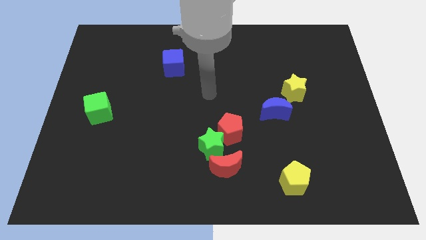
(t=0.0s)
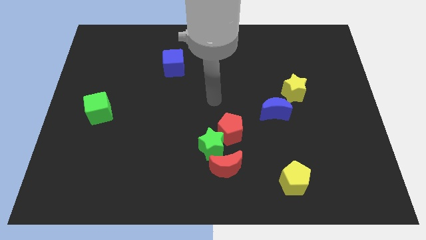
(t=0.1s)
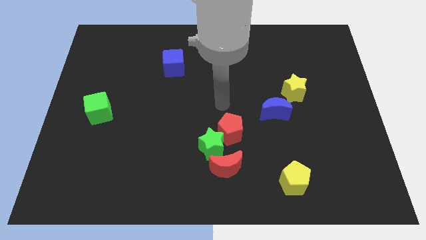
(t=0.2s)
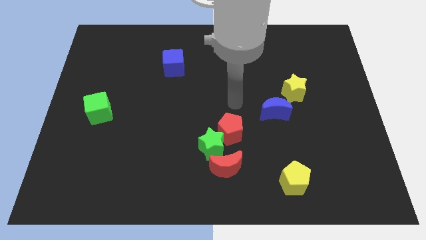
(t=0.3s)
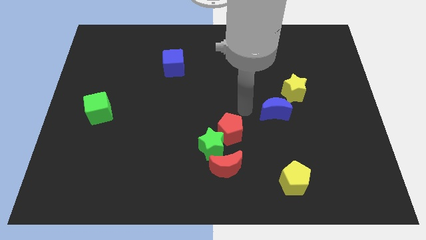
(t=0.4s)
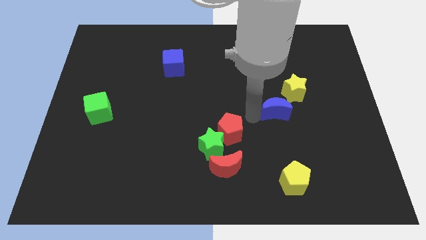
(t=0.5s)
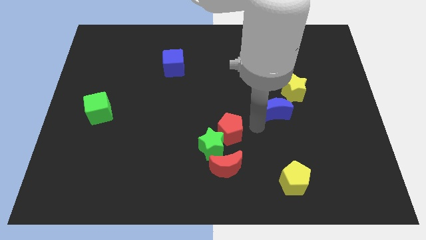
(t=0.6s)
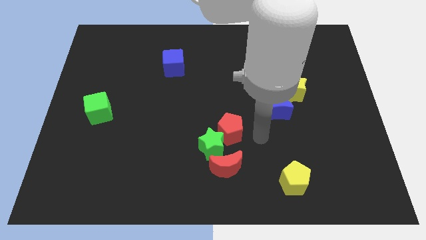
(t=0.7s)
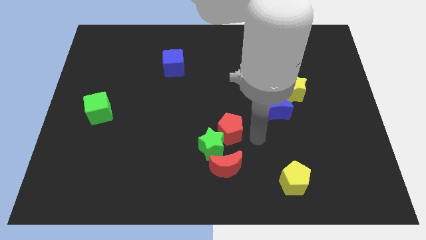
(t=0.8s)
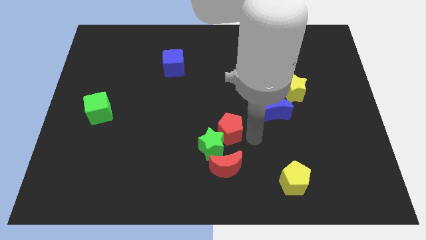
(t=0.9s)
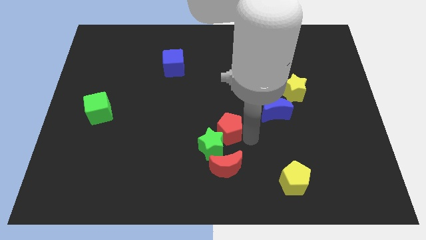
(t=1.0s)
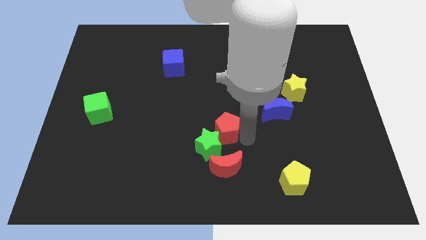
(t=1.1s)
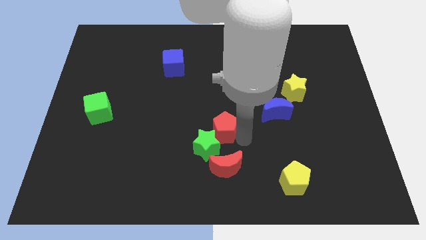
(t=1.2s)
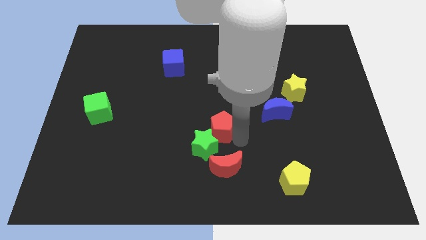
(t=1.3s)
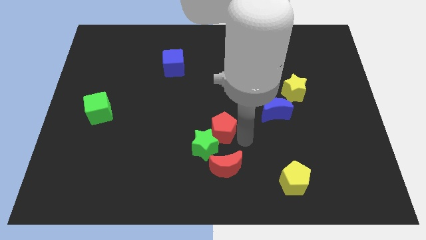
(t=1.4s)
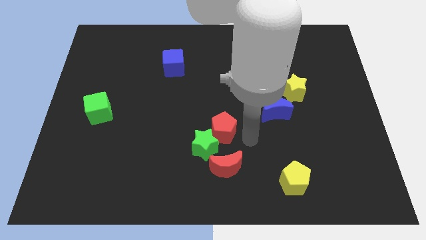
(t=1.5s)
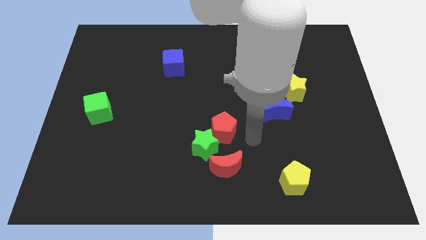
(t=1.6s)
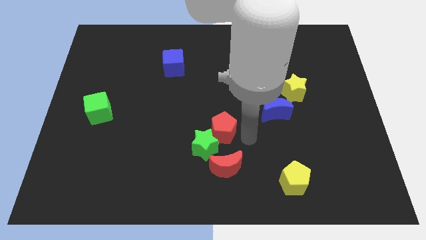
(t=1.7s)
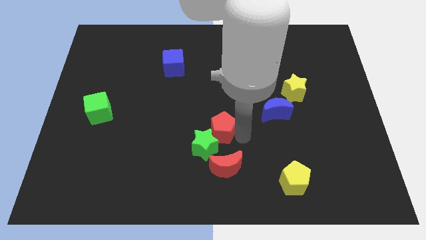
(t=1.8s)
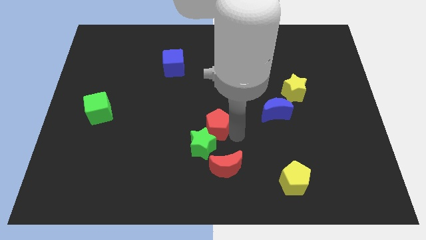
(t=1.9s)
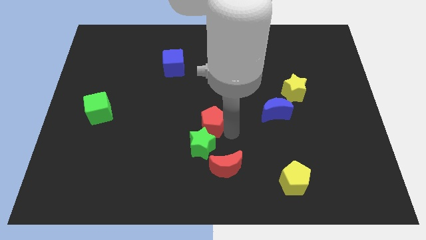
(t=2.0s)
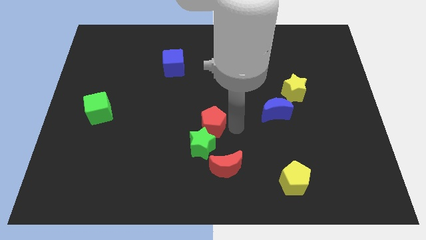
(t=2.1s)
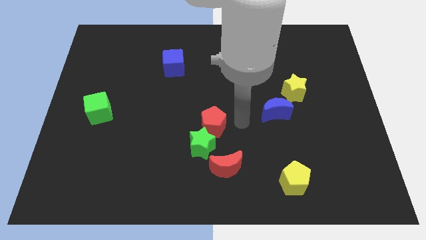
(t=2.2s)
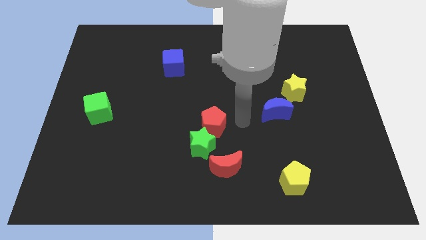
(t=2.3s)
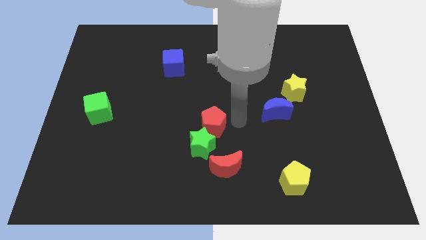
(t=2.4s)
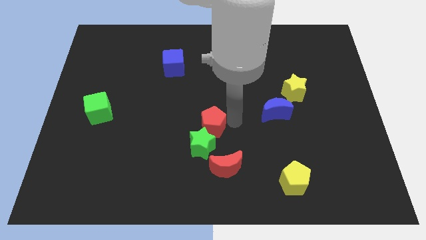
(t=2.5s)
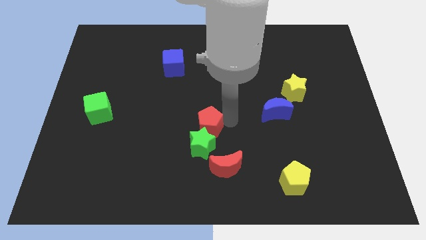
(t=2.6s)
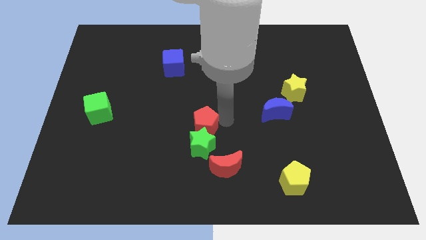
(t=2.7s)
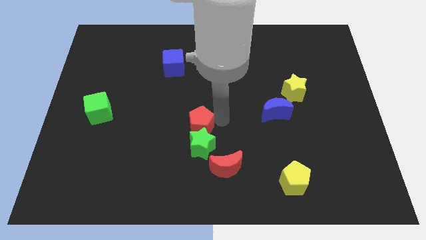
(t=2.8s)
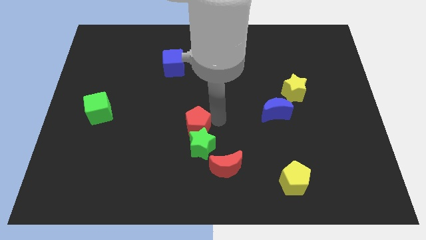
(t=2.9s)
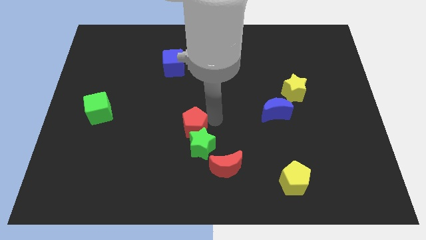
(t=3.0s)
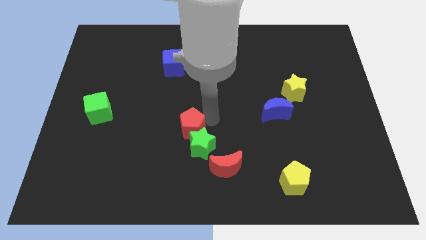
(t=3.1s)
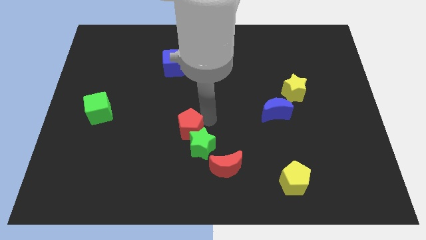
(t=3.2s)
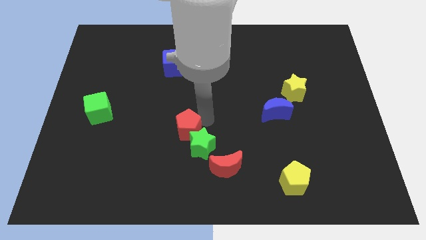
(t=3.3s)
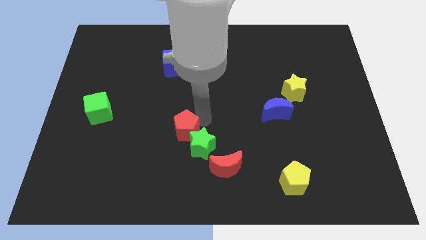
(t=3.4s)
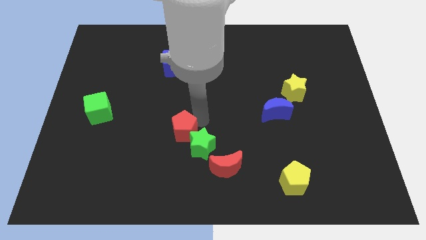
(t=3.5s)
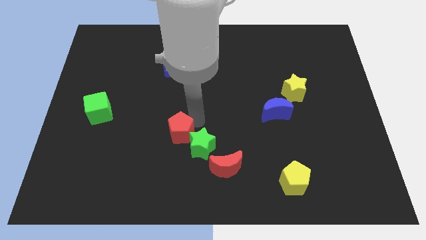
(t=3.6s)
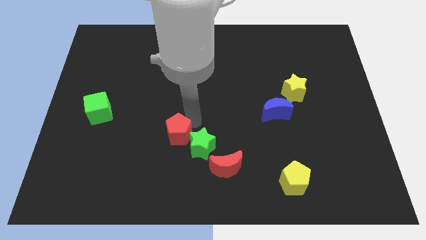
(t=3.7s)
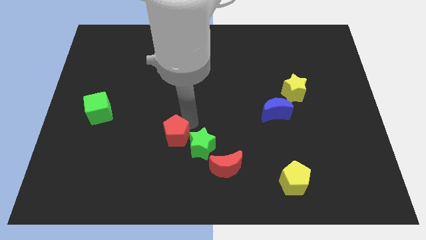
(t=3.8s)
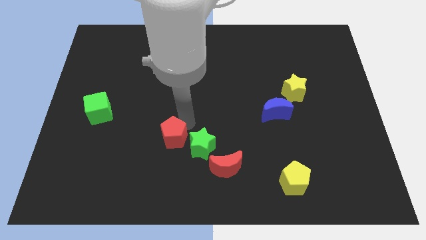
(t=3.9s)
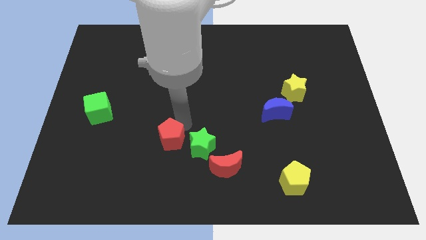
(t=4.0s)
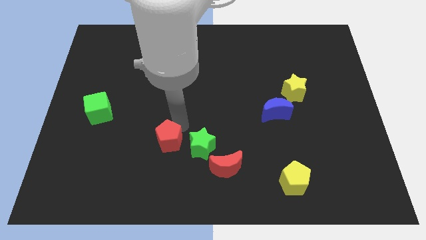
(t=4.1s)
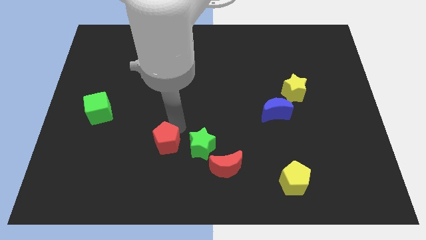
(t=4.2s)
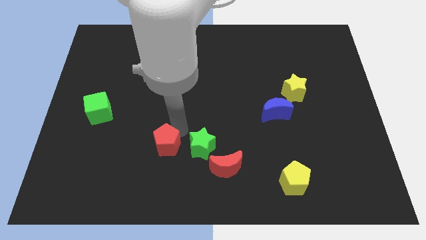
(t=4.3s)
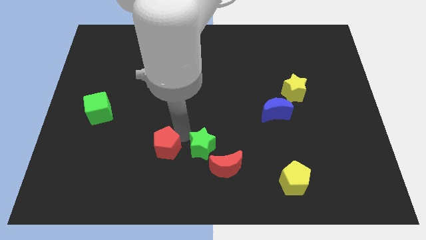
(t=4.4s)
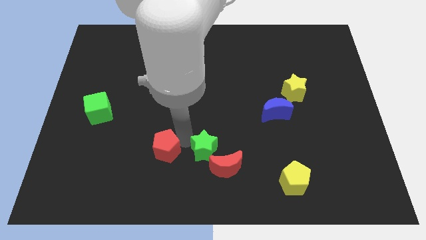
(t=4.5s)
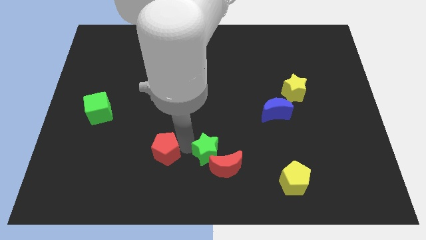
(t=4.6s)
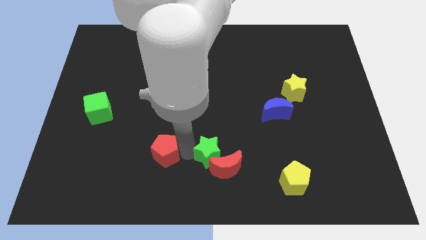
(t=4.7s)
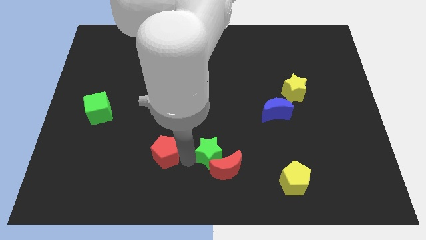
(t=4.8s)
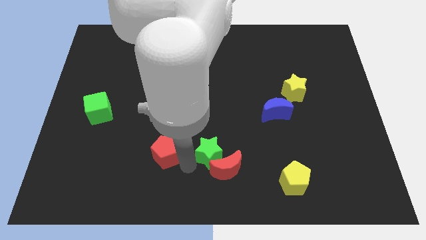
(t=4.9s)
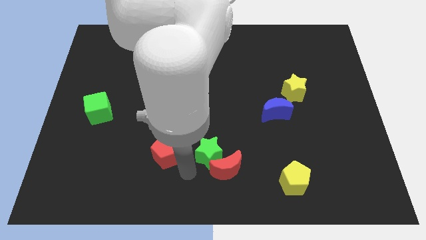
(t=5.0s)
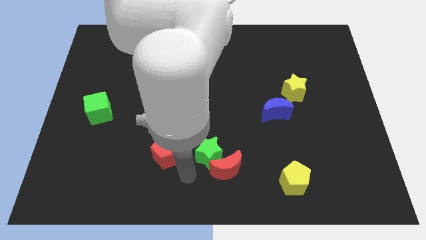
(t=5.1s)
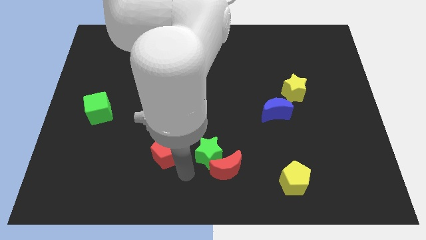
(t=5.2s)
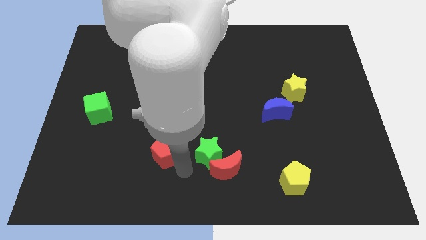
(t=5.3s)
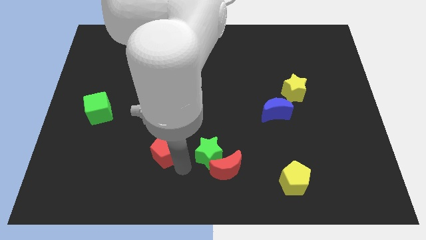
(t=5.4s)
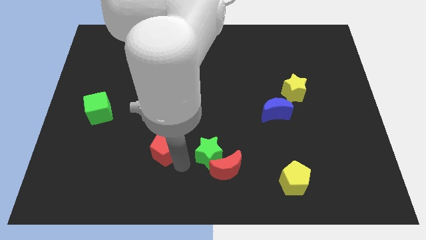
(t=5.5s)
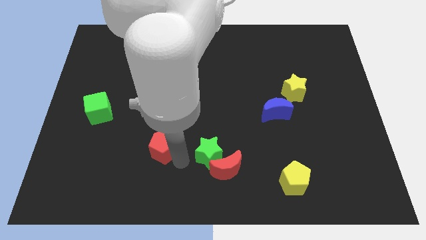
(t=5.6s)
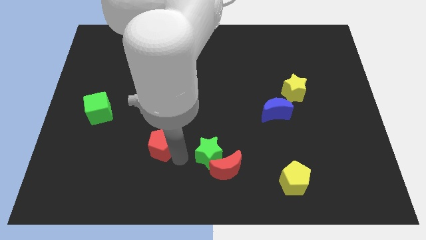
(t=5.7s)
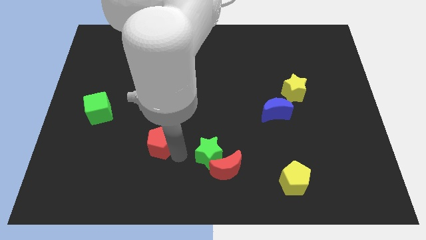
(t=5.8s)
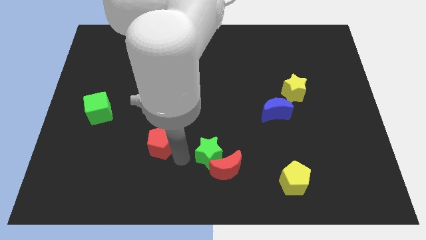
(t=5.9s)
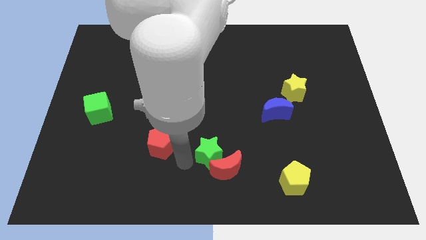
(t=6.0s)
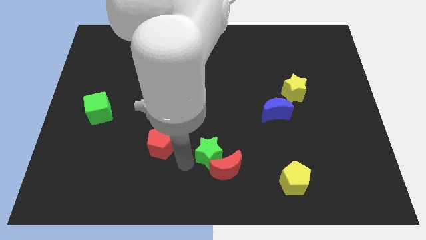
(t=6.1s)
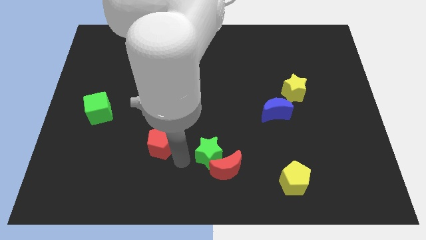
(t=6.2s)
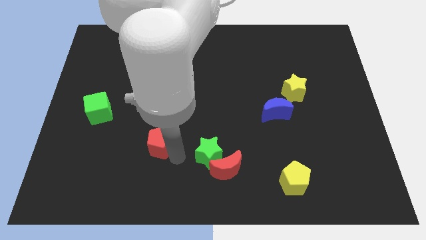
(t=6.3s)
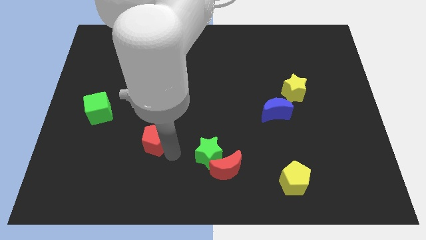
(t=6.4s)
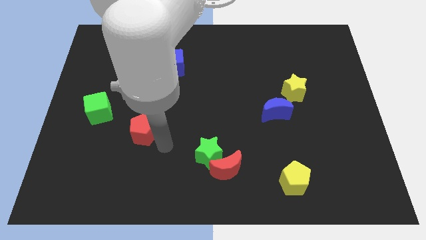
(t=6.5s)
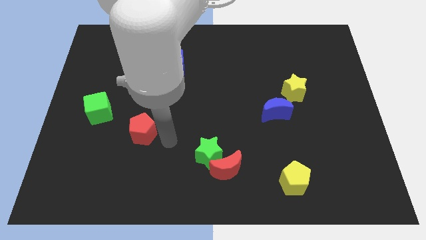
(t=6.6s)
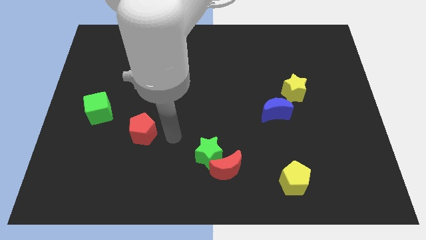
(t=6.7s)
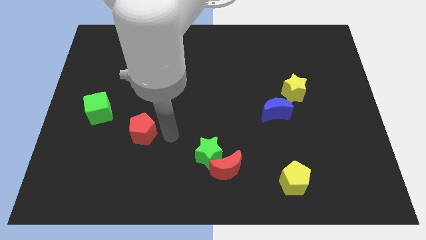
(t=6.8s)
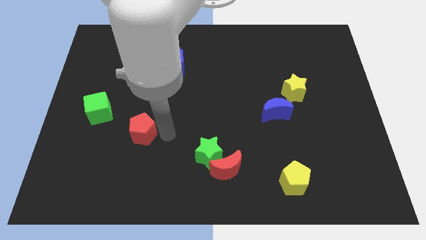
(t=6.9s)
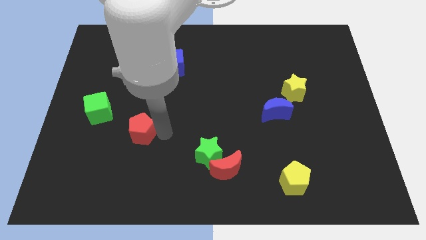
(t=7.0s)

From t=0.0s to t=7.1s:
slide the red pentagon to the left

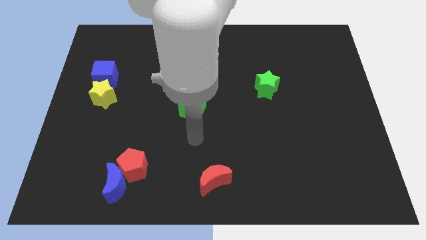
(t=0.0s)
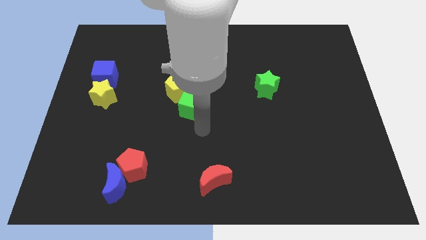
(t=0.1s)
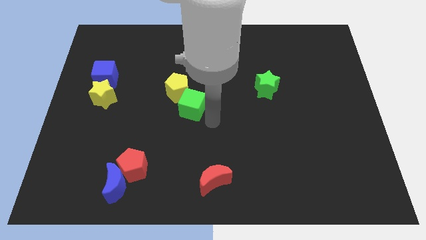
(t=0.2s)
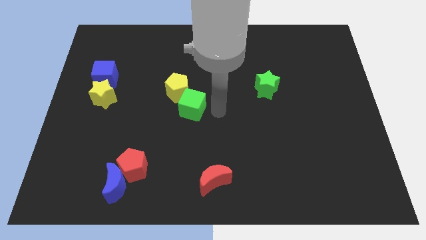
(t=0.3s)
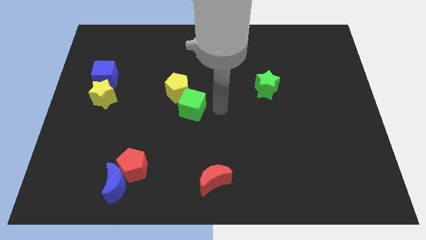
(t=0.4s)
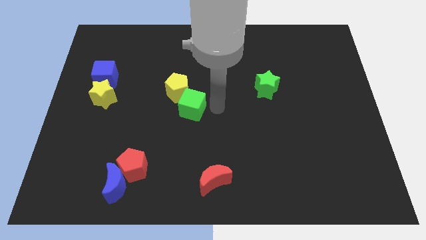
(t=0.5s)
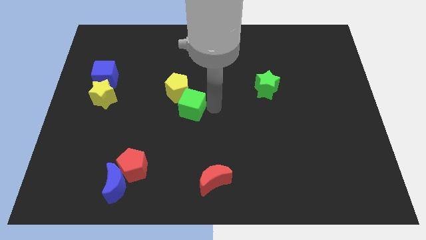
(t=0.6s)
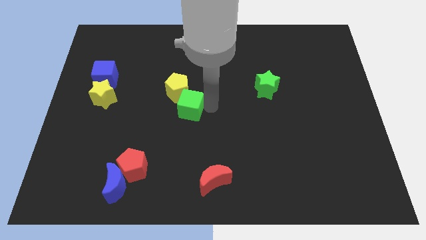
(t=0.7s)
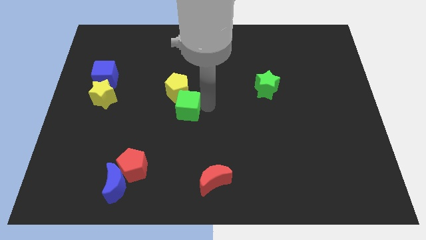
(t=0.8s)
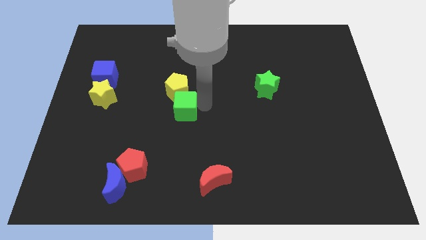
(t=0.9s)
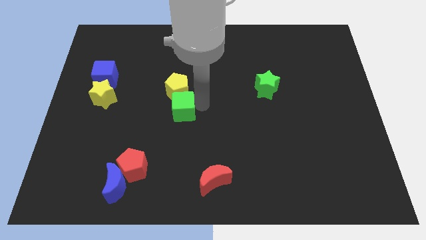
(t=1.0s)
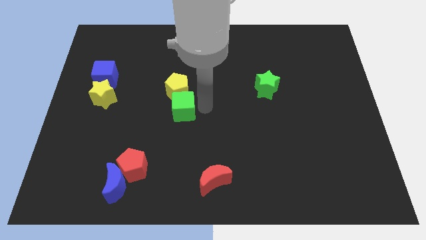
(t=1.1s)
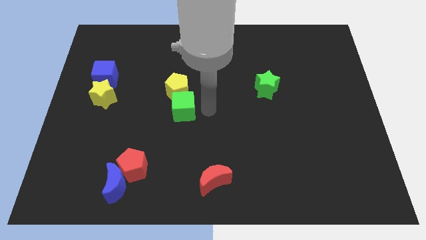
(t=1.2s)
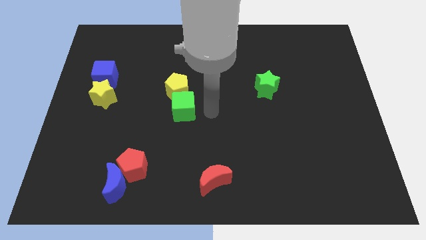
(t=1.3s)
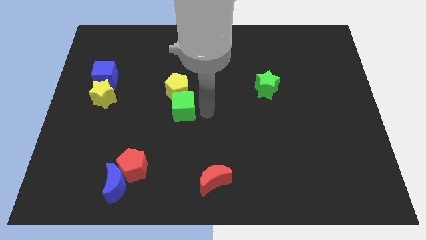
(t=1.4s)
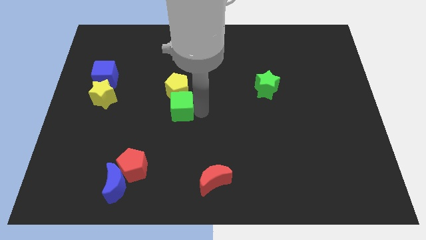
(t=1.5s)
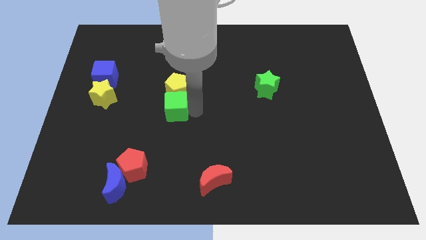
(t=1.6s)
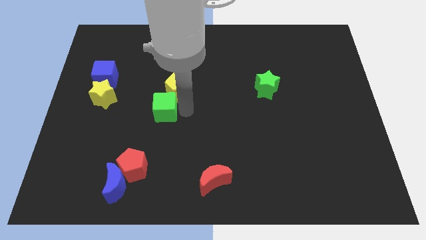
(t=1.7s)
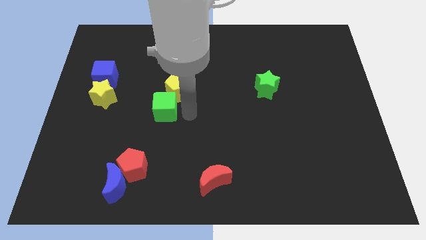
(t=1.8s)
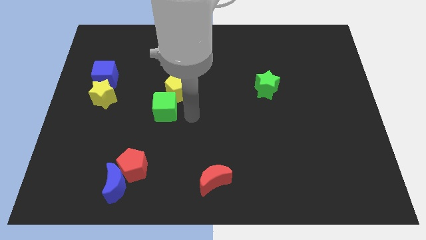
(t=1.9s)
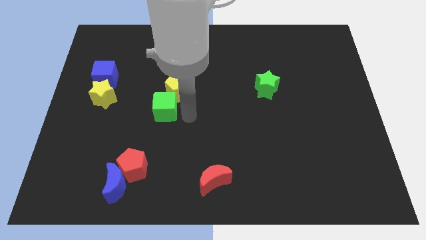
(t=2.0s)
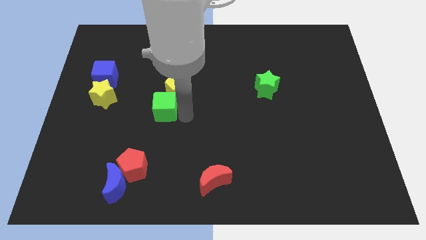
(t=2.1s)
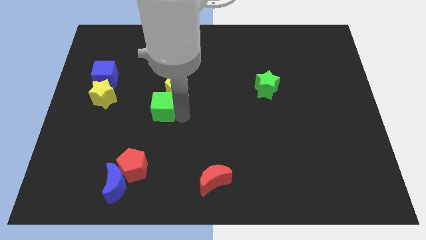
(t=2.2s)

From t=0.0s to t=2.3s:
push the green cube left slightly
